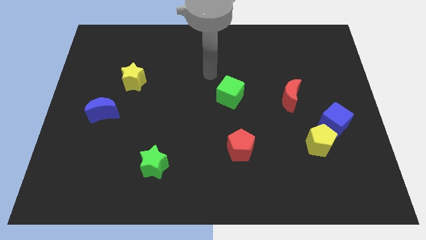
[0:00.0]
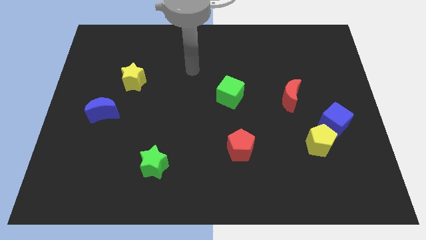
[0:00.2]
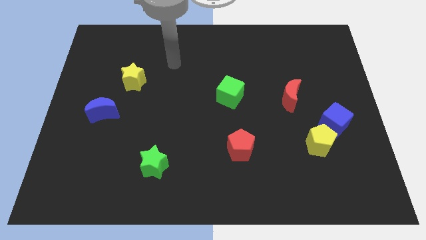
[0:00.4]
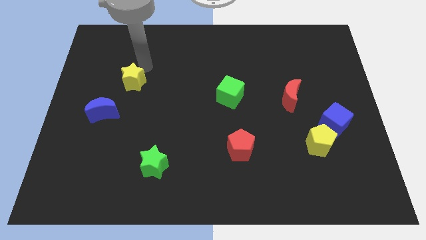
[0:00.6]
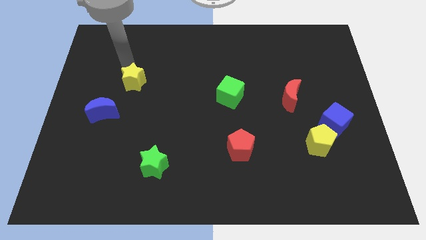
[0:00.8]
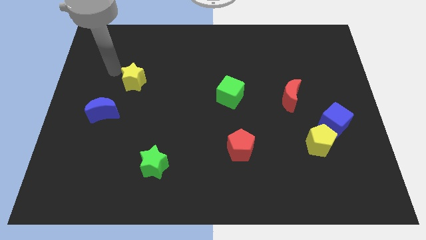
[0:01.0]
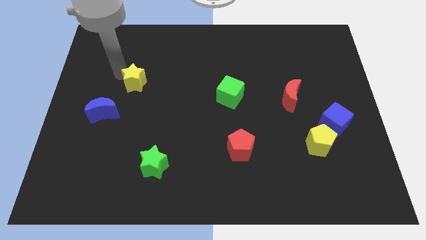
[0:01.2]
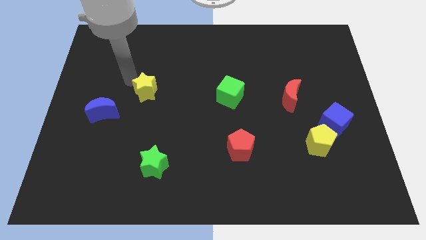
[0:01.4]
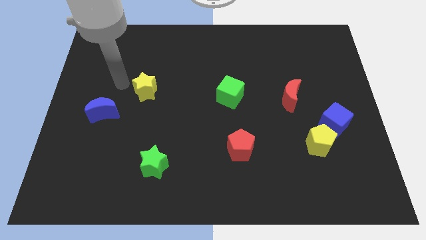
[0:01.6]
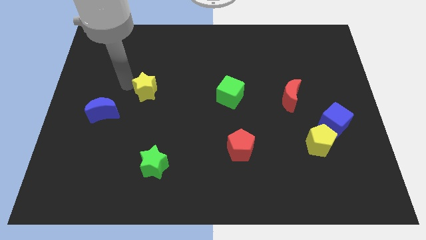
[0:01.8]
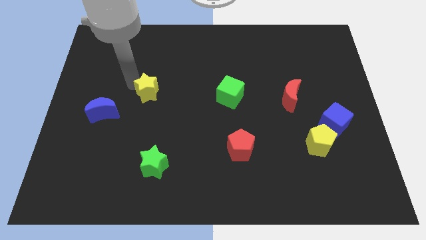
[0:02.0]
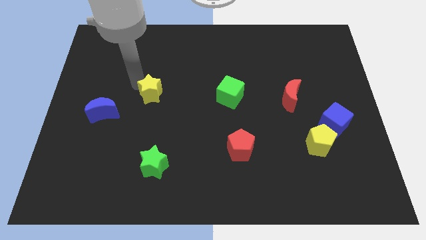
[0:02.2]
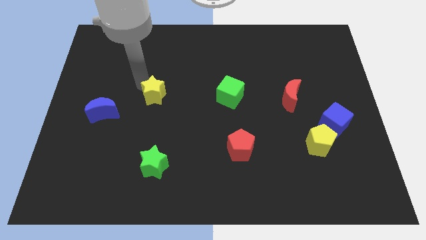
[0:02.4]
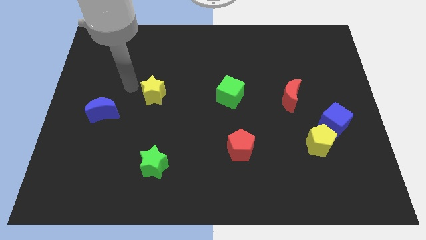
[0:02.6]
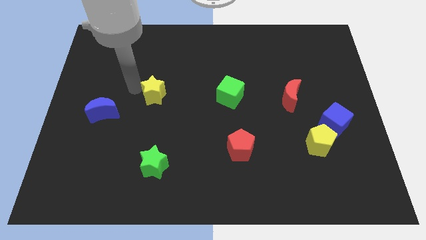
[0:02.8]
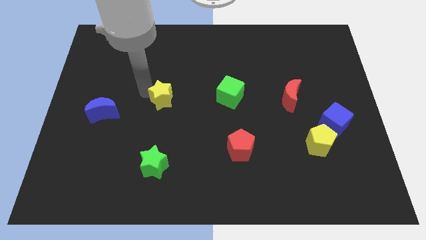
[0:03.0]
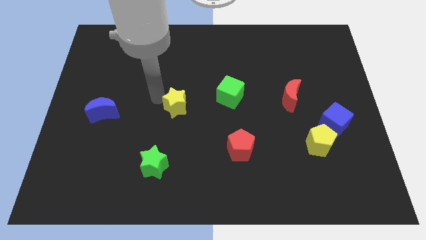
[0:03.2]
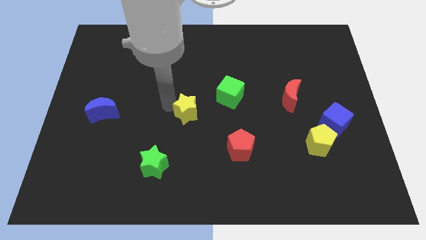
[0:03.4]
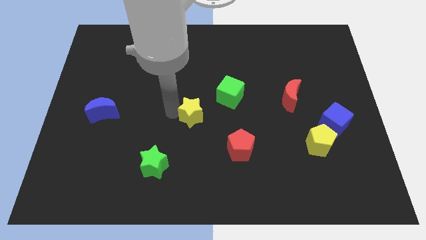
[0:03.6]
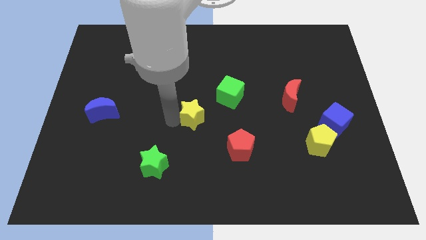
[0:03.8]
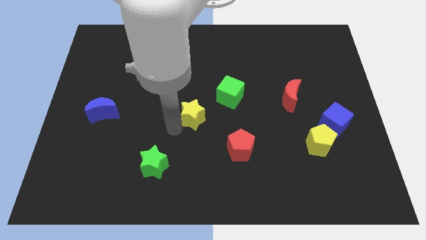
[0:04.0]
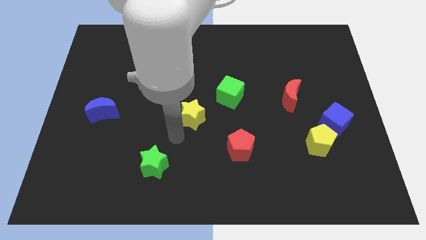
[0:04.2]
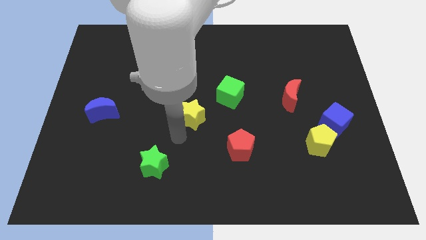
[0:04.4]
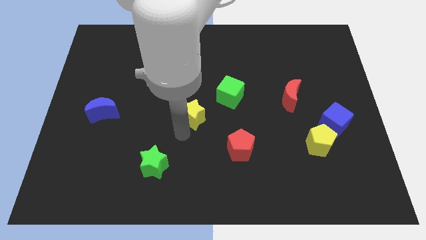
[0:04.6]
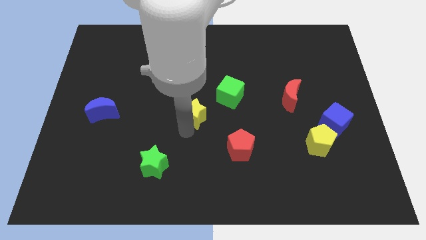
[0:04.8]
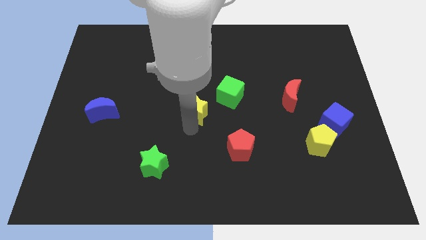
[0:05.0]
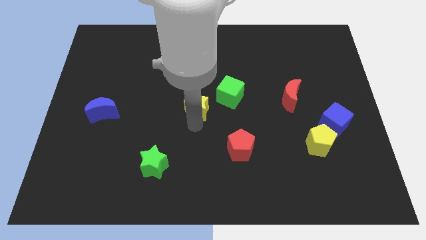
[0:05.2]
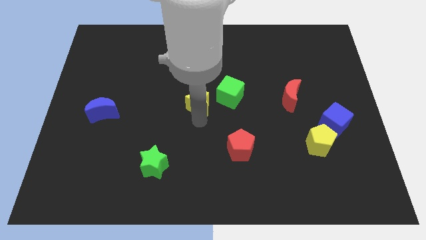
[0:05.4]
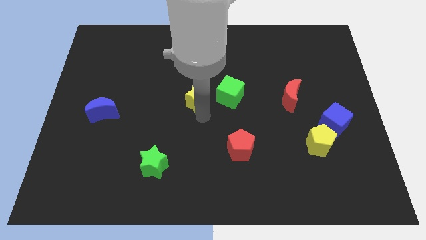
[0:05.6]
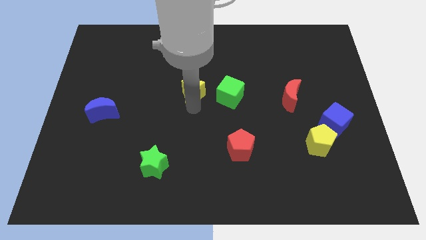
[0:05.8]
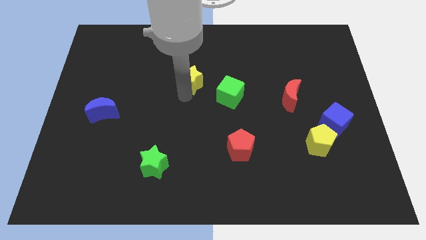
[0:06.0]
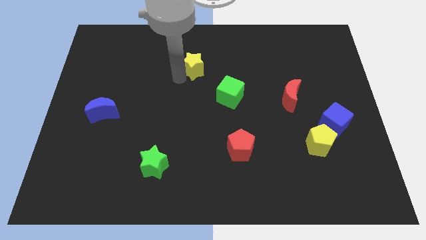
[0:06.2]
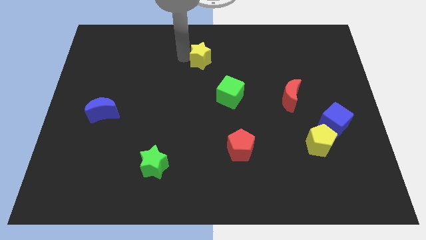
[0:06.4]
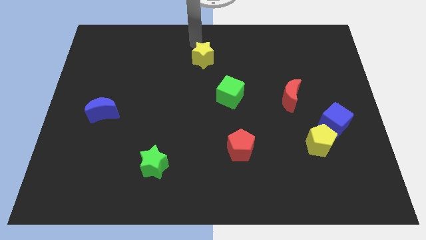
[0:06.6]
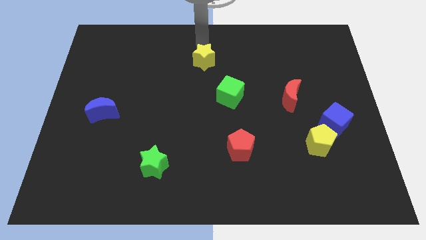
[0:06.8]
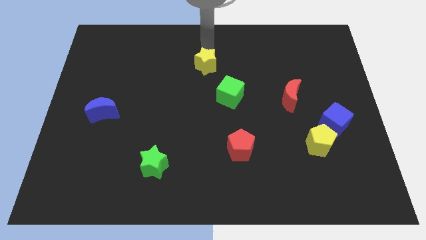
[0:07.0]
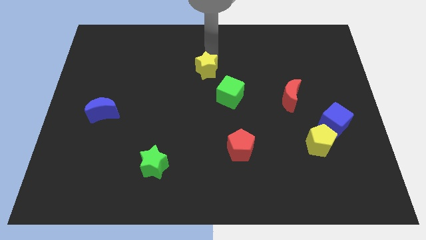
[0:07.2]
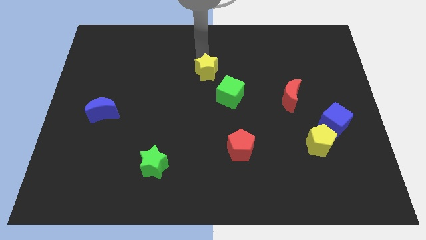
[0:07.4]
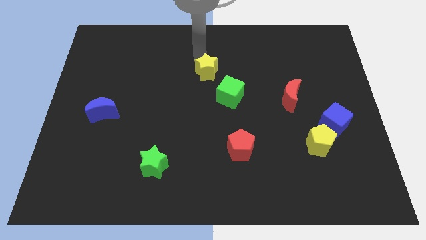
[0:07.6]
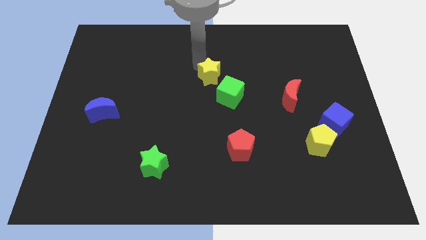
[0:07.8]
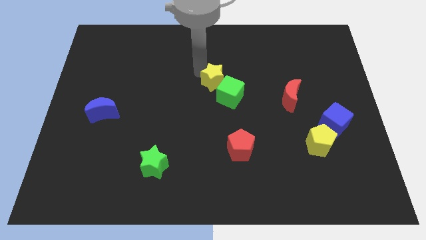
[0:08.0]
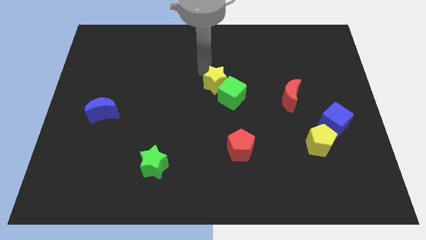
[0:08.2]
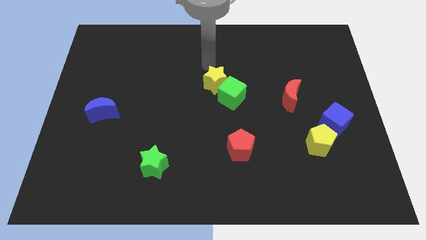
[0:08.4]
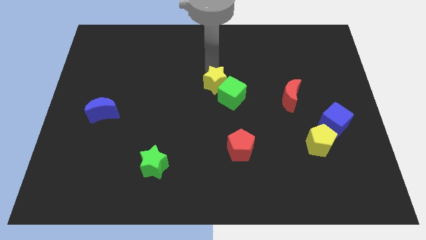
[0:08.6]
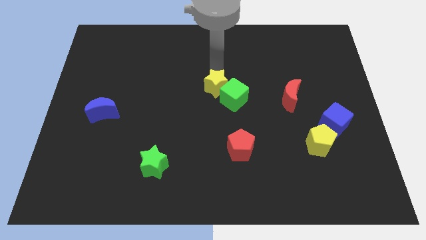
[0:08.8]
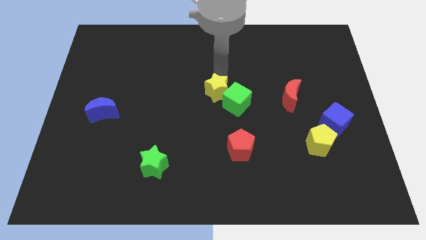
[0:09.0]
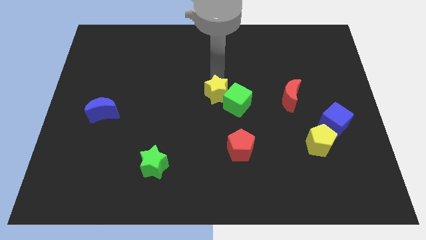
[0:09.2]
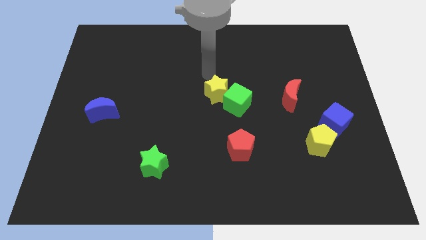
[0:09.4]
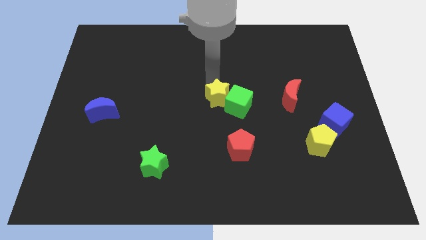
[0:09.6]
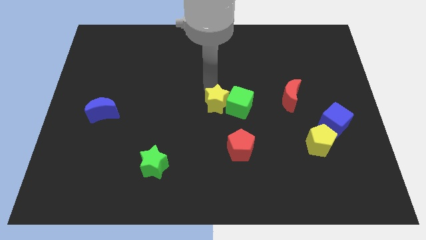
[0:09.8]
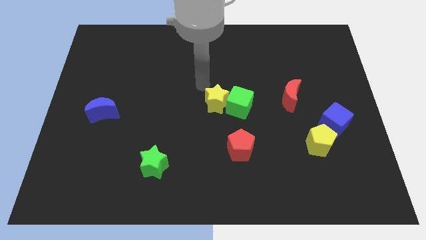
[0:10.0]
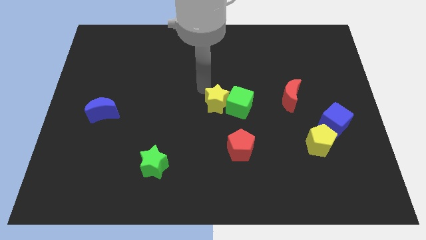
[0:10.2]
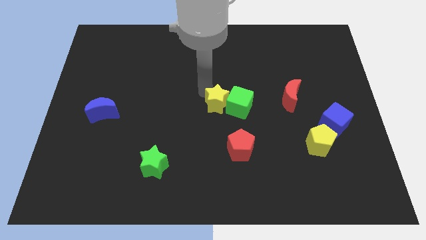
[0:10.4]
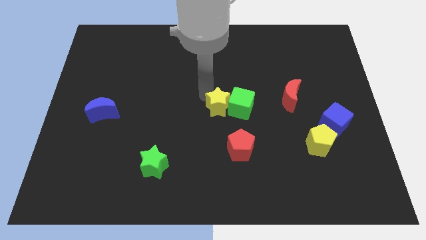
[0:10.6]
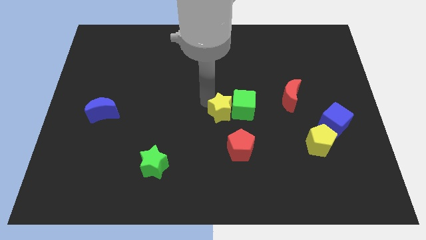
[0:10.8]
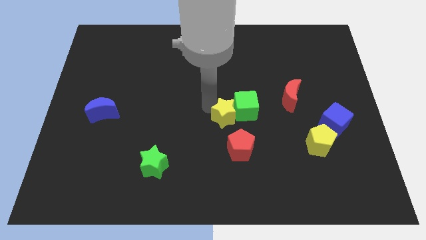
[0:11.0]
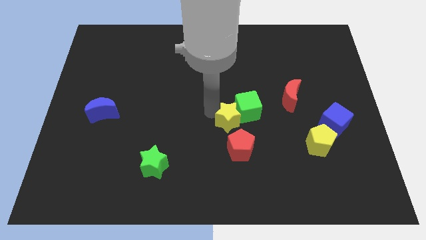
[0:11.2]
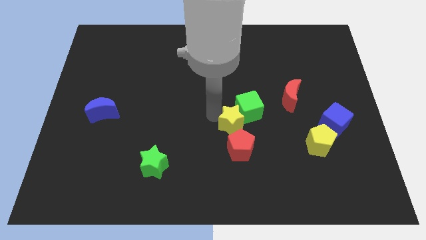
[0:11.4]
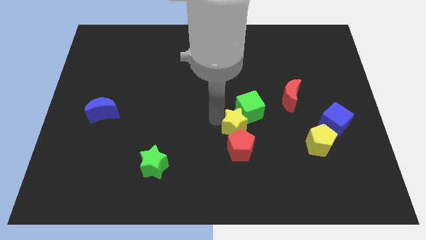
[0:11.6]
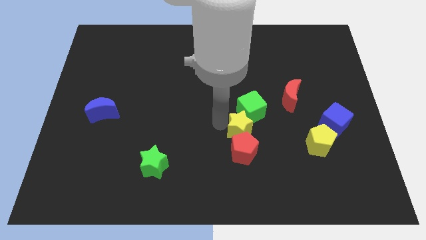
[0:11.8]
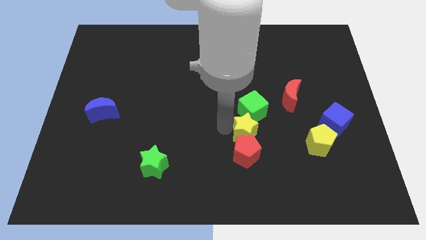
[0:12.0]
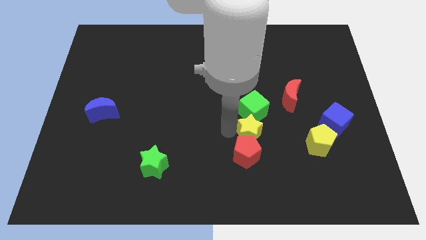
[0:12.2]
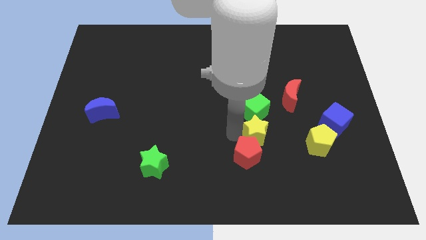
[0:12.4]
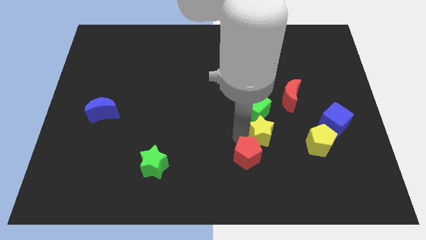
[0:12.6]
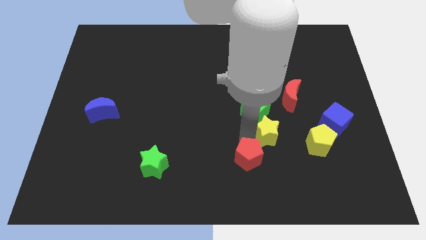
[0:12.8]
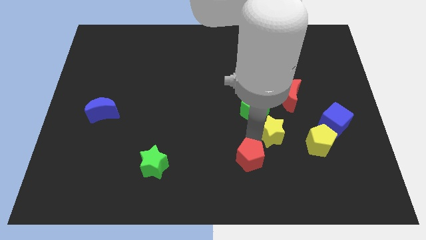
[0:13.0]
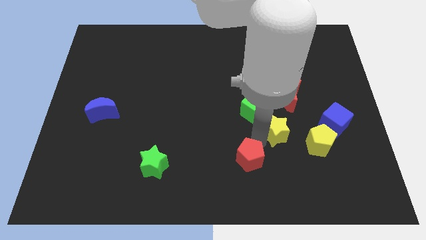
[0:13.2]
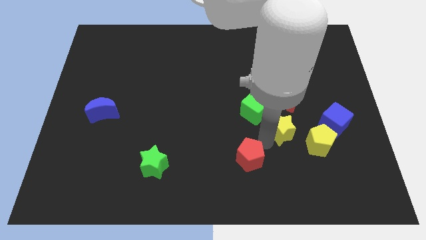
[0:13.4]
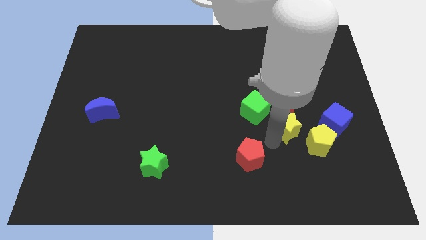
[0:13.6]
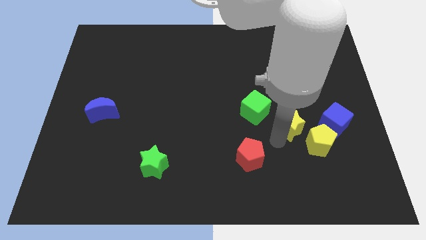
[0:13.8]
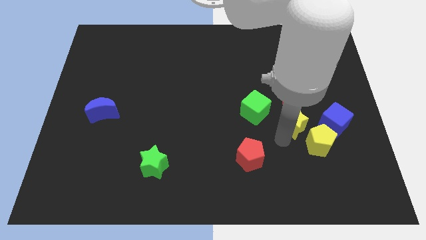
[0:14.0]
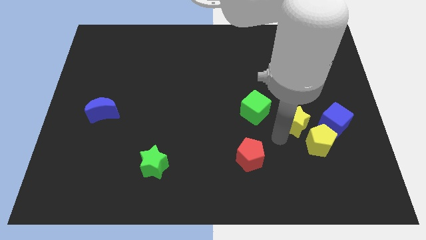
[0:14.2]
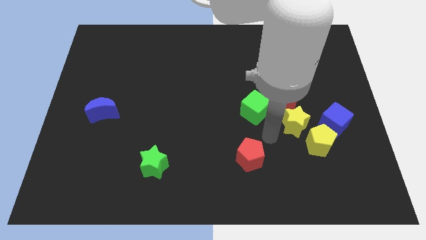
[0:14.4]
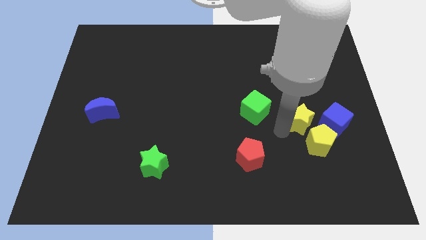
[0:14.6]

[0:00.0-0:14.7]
slide the yellow star to the bottom right side of the red moon
